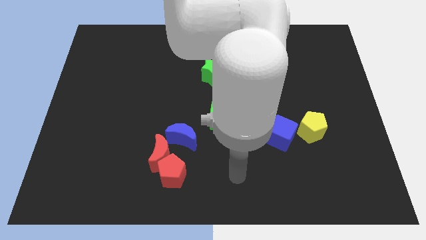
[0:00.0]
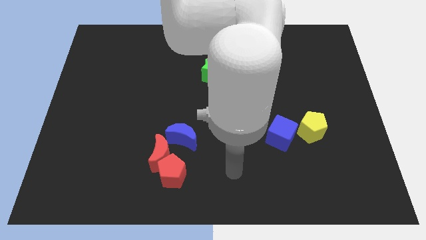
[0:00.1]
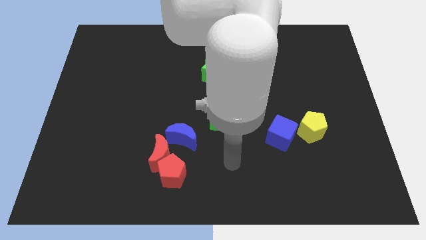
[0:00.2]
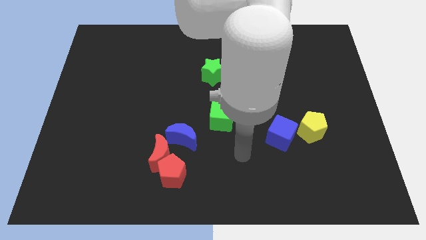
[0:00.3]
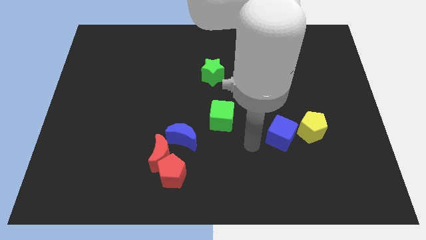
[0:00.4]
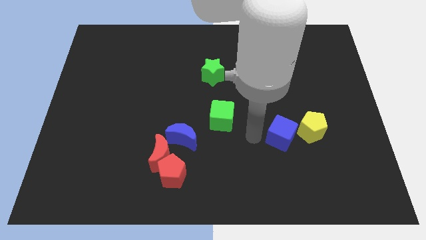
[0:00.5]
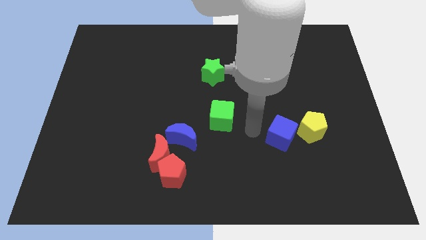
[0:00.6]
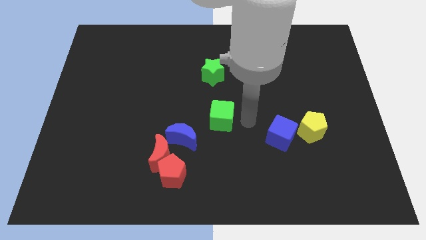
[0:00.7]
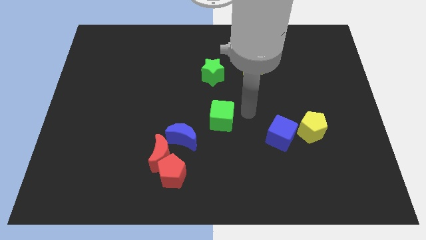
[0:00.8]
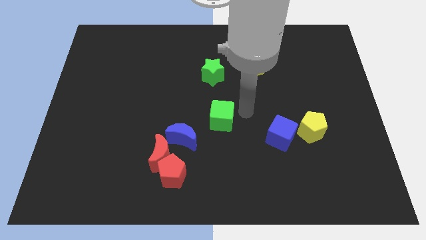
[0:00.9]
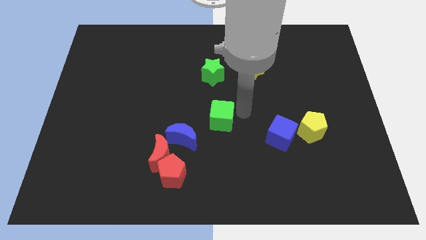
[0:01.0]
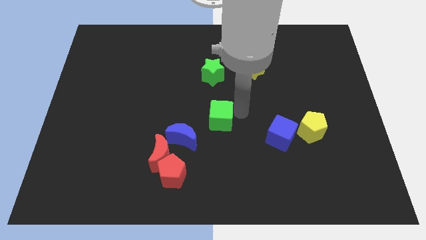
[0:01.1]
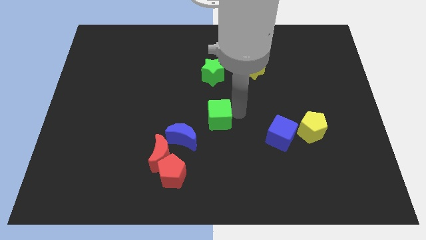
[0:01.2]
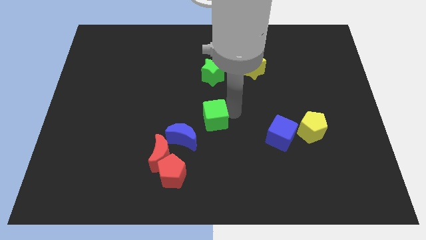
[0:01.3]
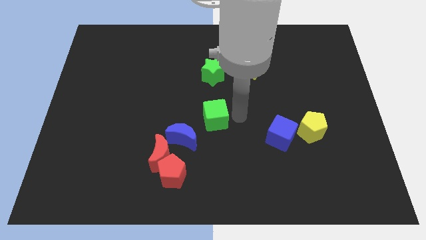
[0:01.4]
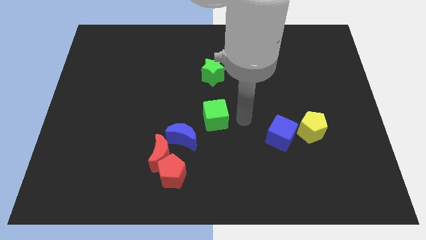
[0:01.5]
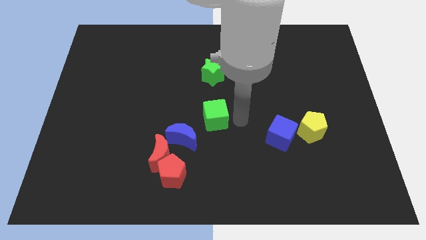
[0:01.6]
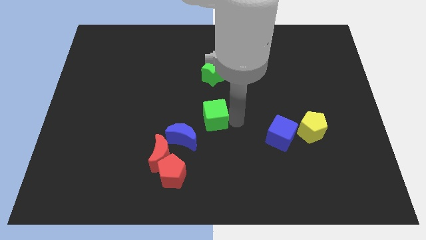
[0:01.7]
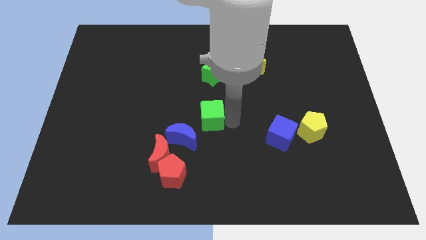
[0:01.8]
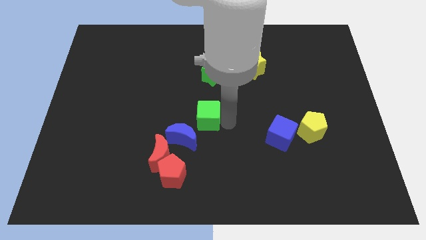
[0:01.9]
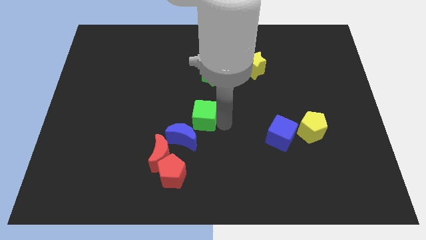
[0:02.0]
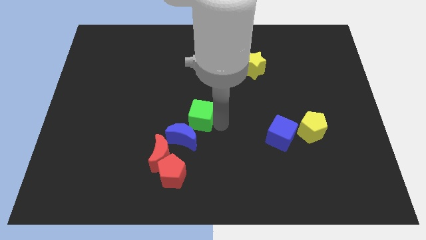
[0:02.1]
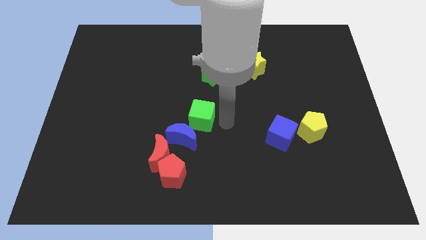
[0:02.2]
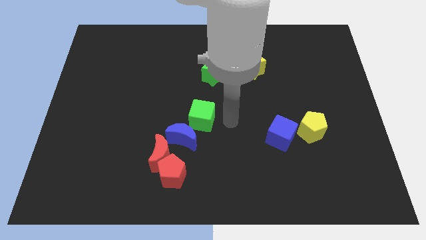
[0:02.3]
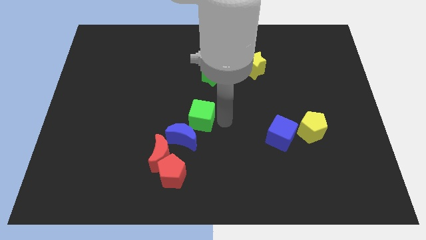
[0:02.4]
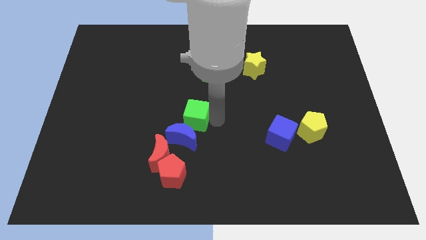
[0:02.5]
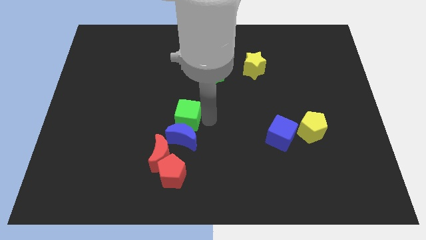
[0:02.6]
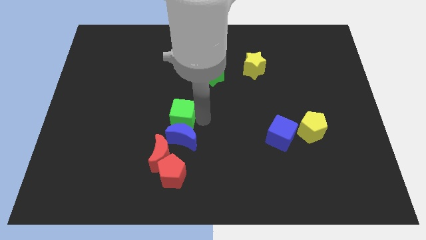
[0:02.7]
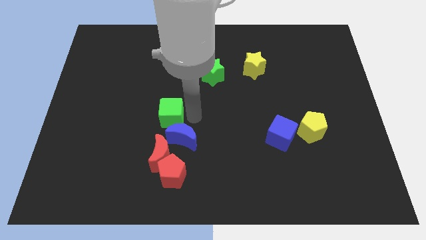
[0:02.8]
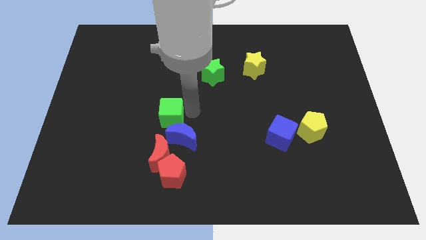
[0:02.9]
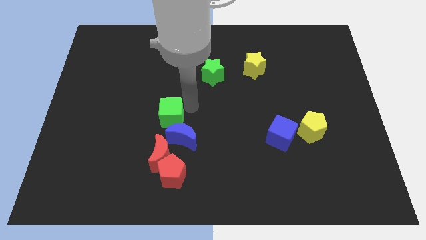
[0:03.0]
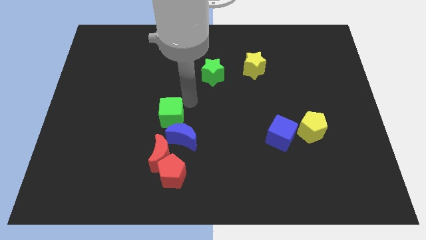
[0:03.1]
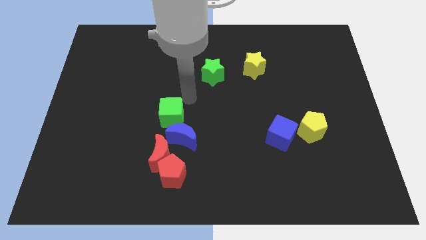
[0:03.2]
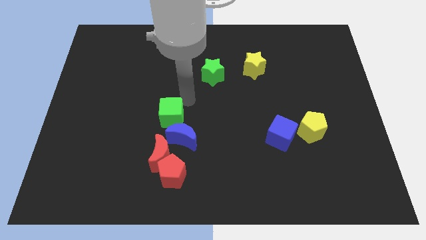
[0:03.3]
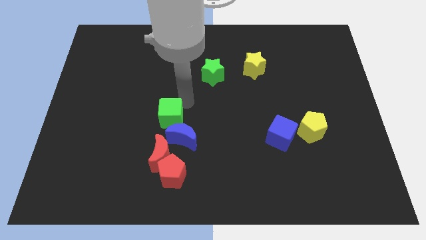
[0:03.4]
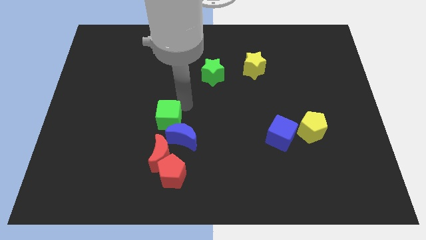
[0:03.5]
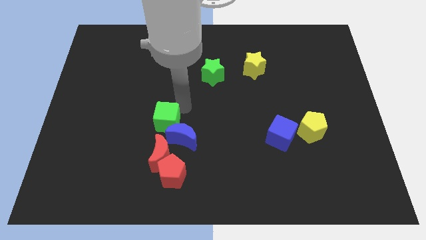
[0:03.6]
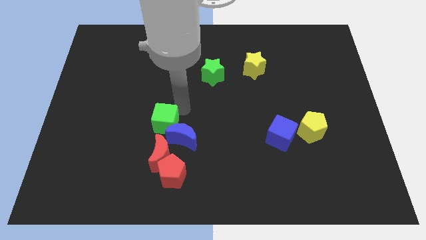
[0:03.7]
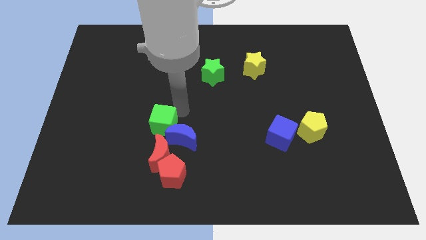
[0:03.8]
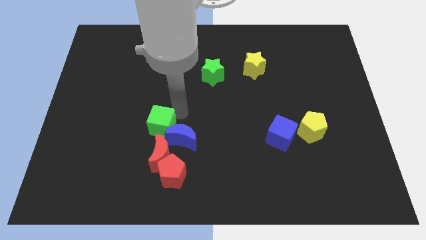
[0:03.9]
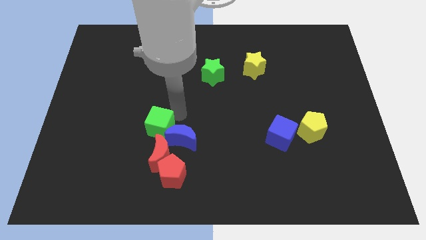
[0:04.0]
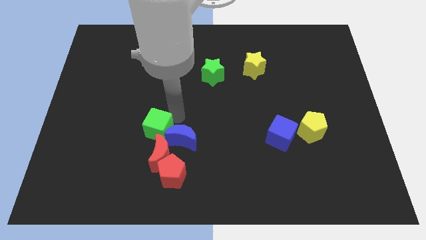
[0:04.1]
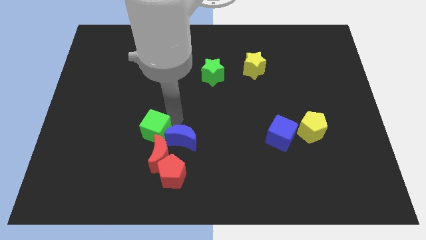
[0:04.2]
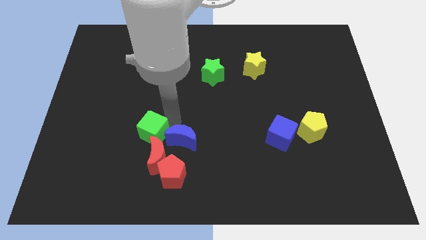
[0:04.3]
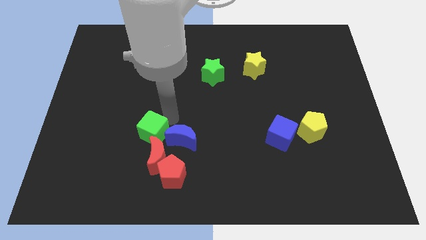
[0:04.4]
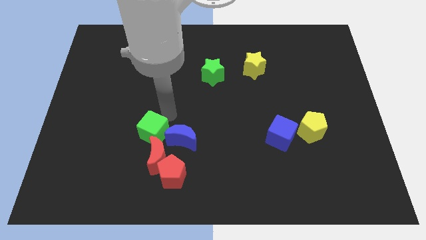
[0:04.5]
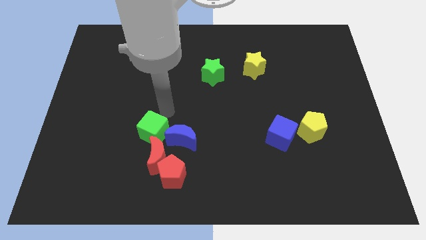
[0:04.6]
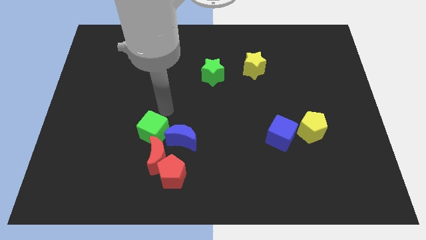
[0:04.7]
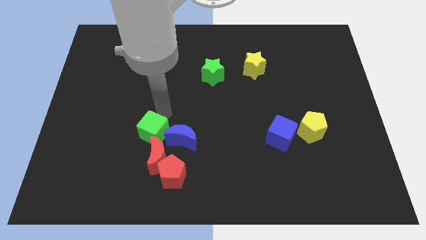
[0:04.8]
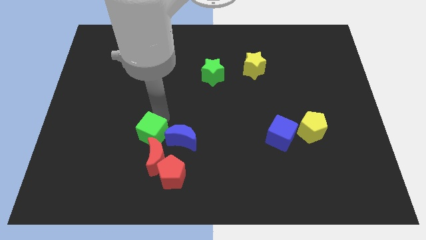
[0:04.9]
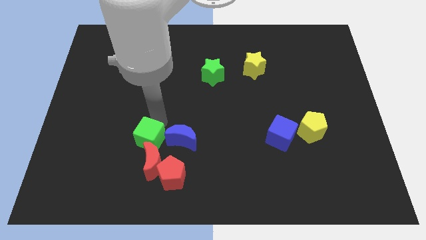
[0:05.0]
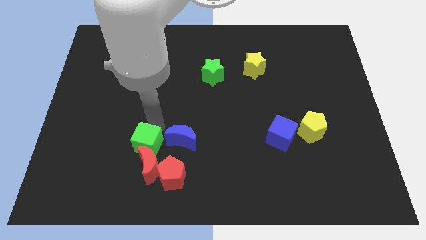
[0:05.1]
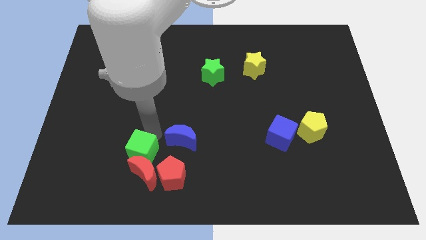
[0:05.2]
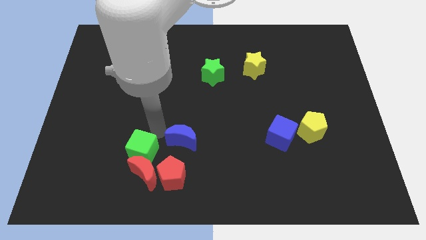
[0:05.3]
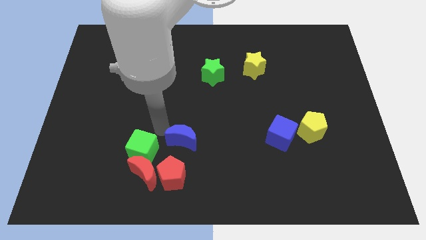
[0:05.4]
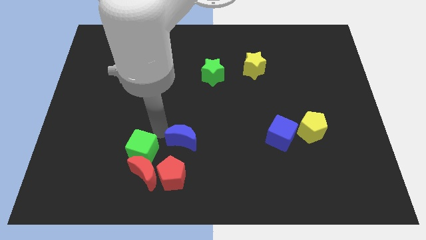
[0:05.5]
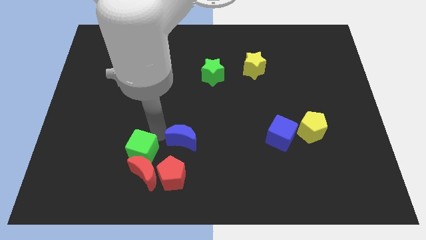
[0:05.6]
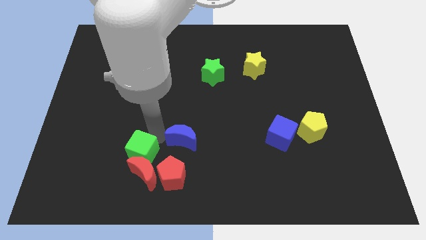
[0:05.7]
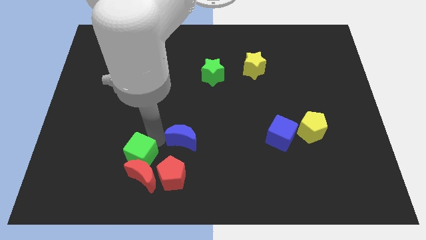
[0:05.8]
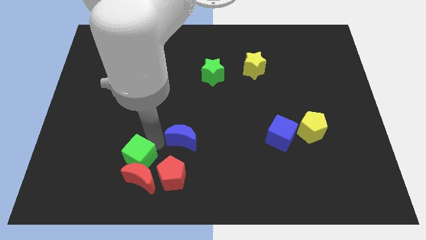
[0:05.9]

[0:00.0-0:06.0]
push the green cube to the left side of the red pentagon
